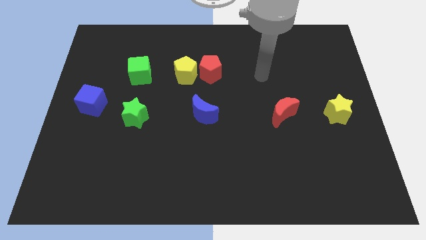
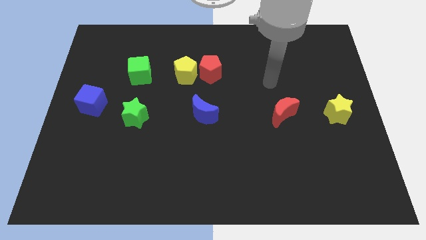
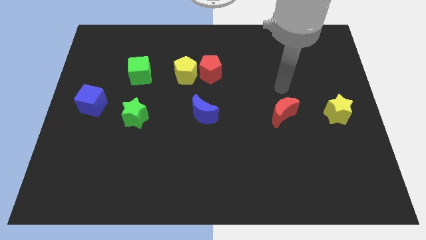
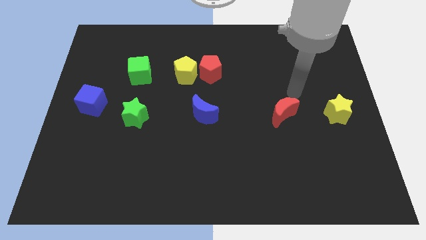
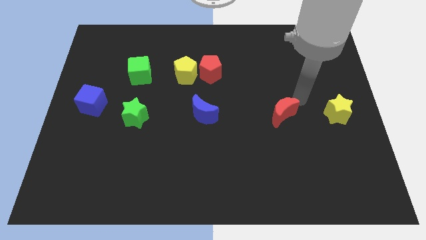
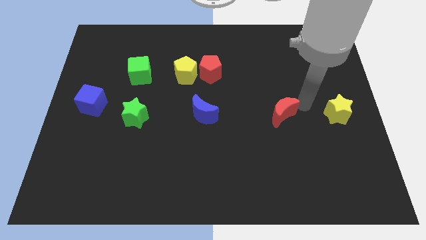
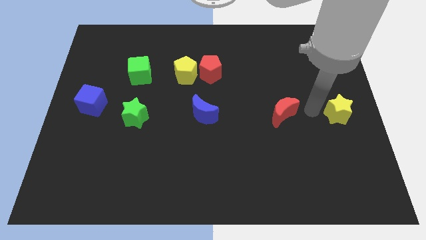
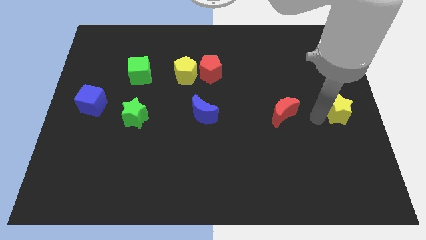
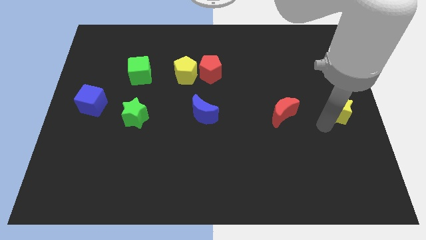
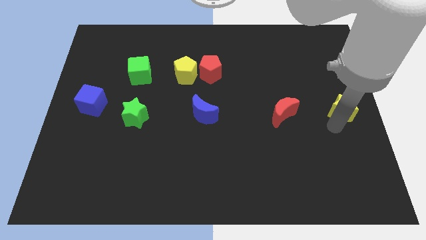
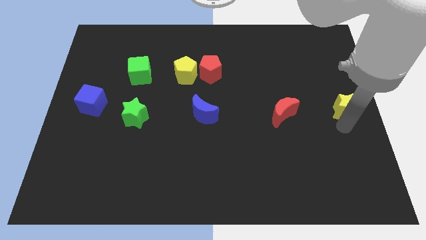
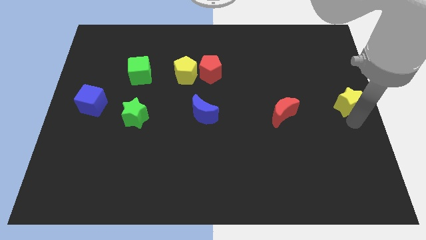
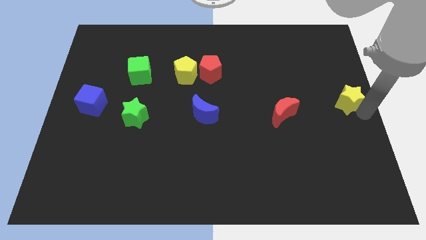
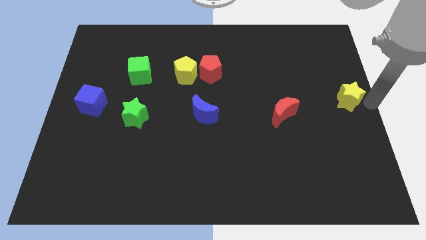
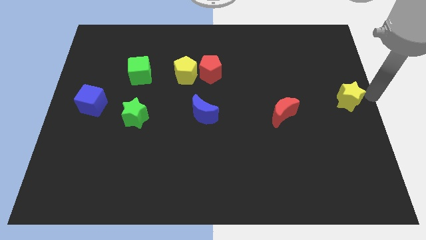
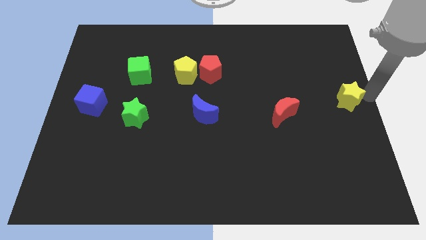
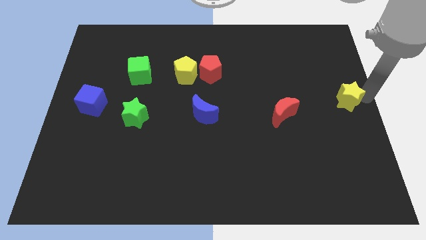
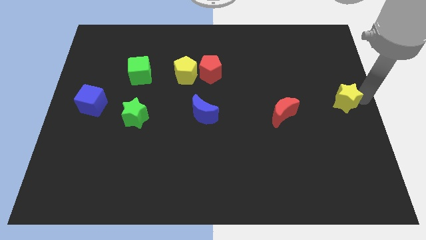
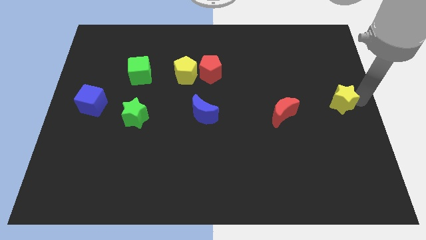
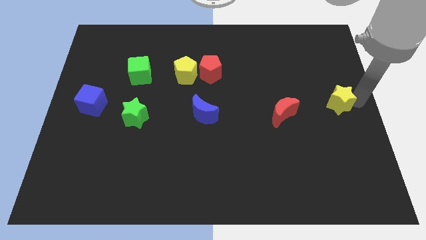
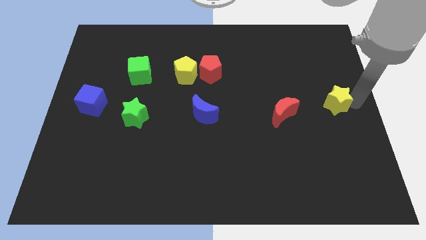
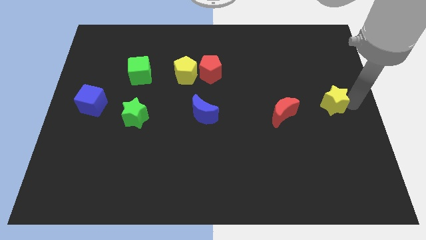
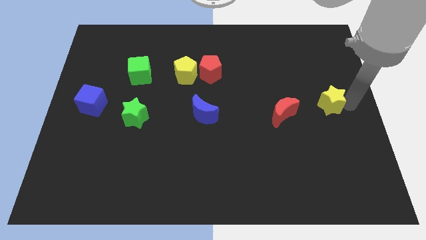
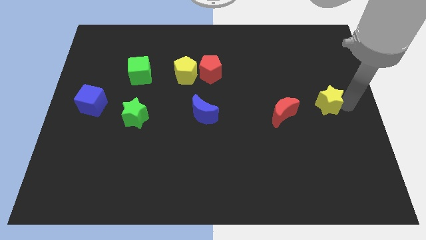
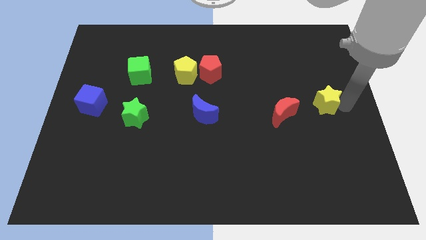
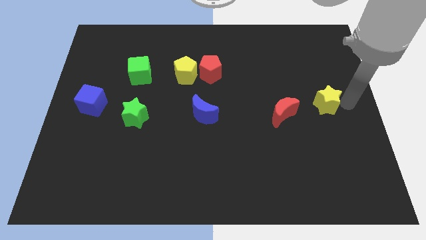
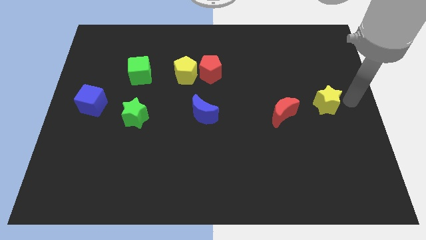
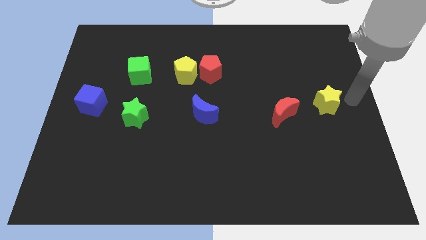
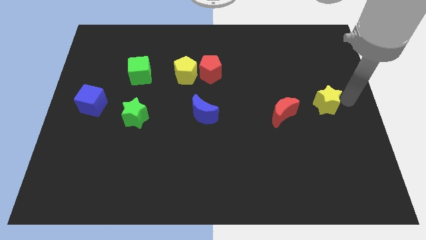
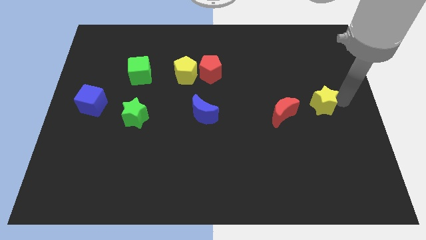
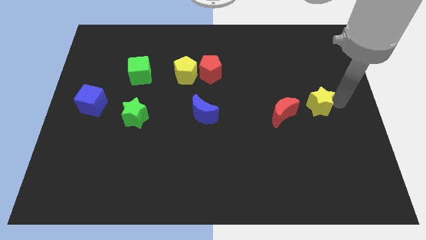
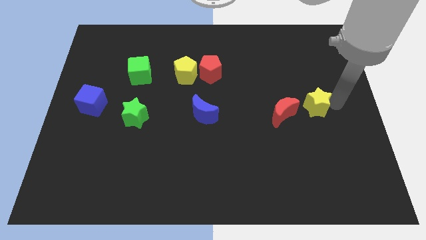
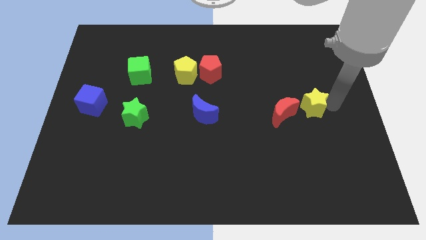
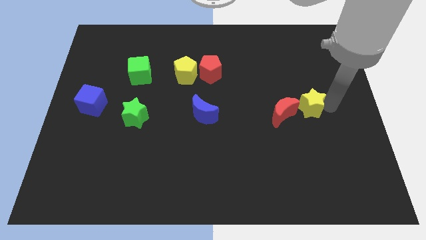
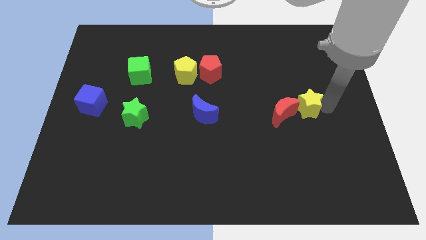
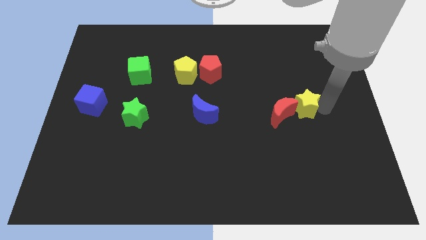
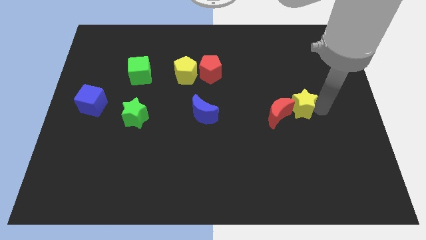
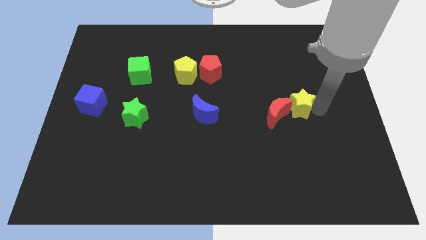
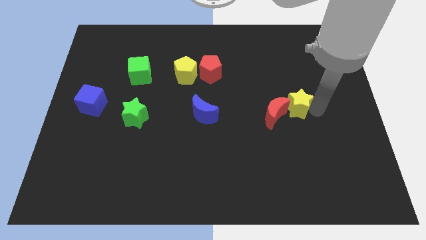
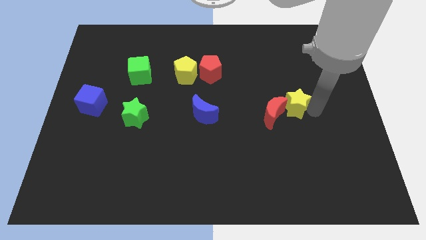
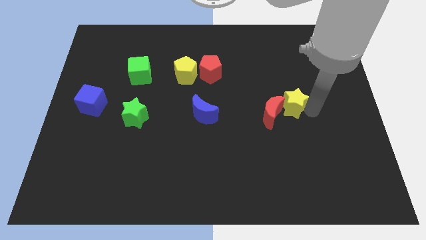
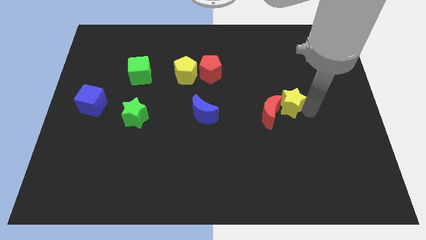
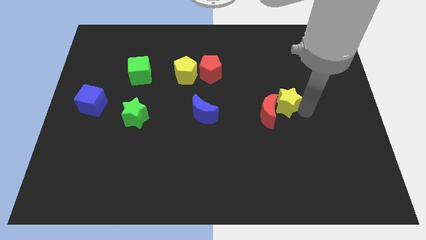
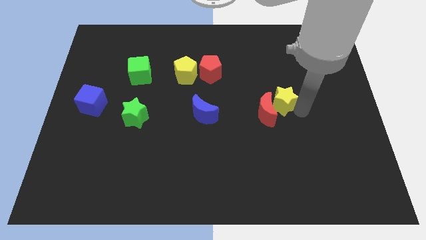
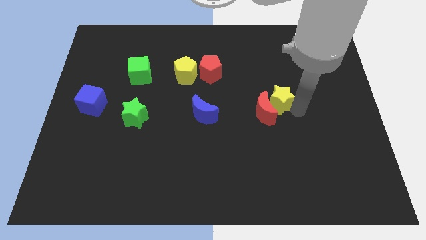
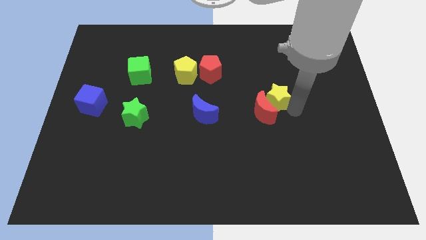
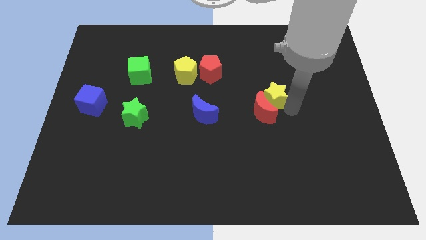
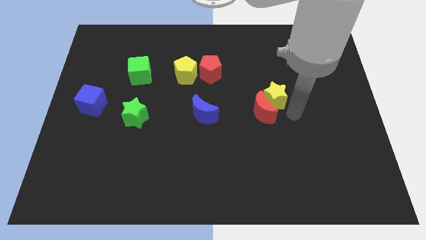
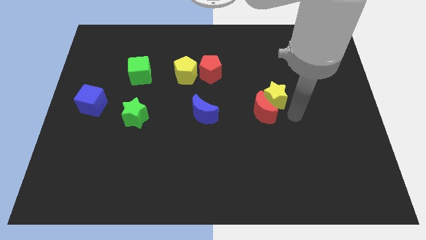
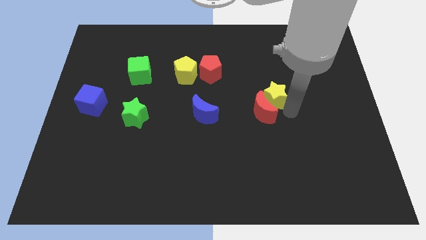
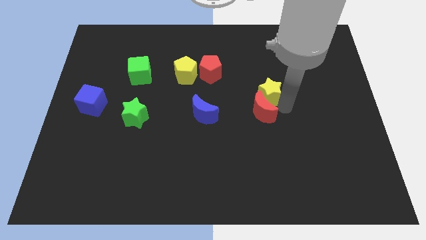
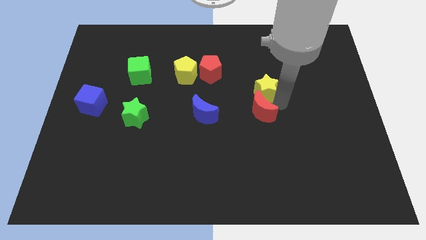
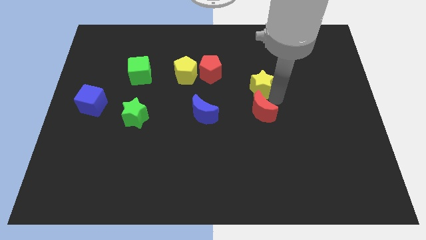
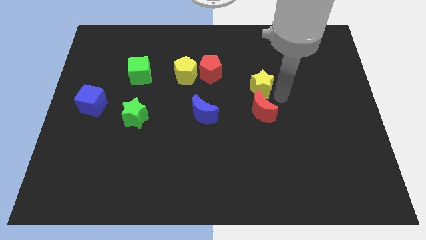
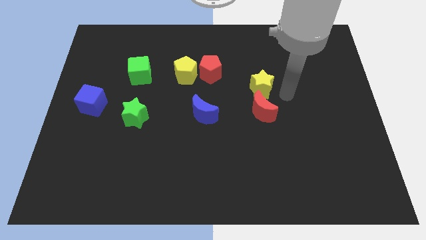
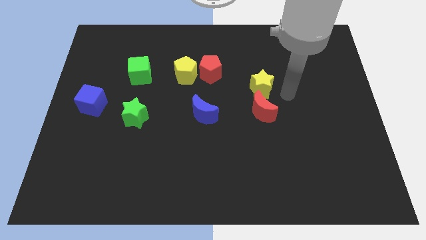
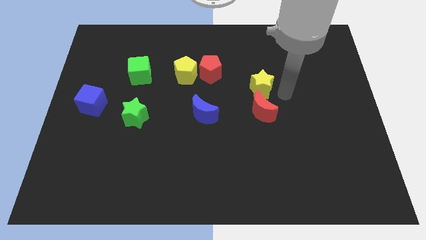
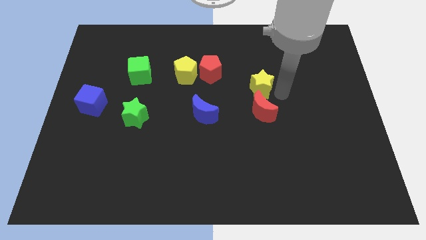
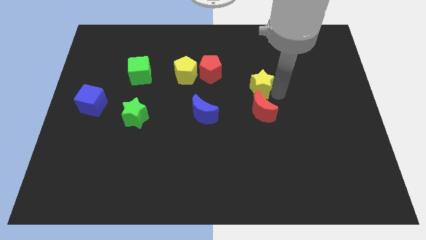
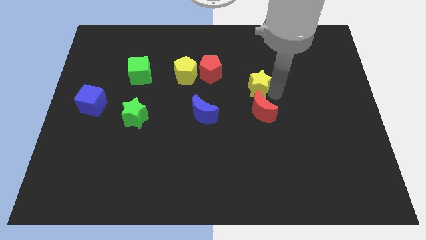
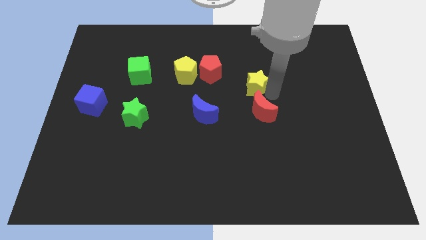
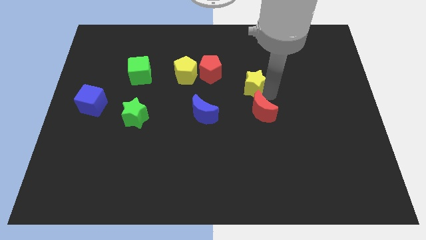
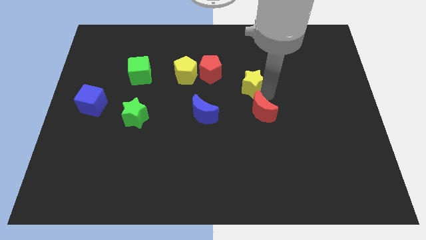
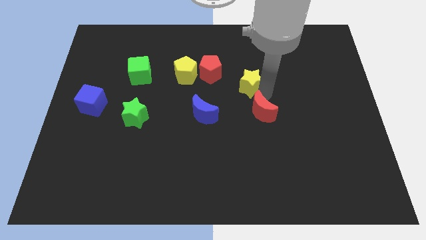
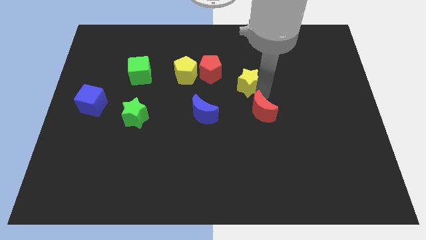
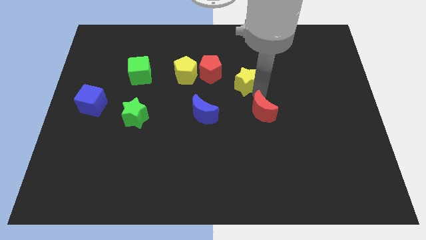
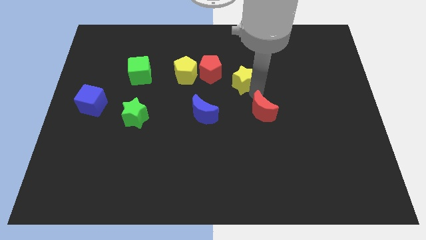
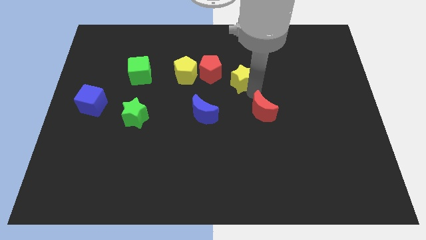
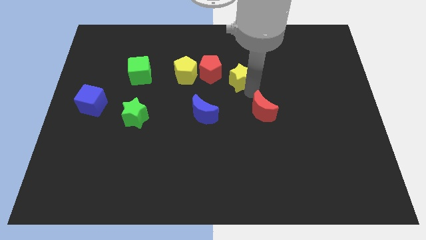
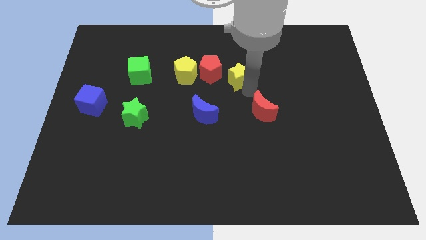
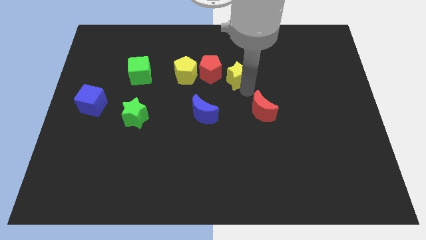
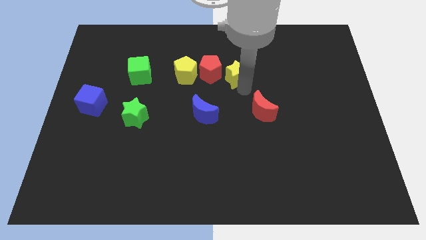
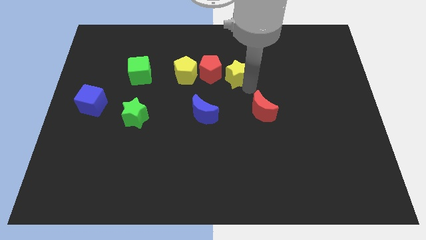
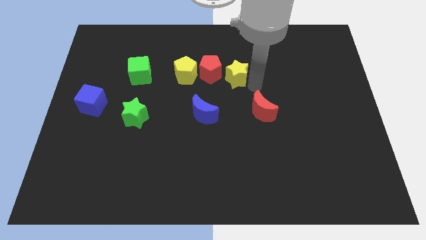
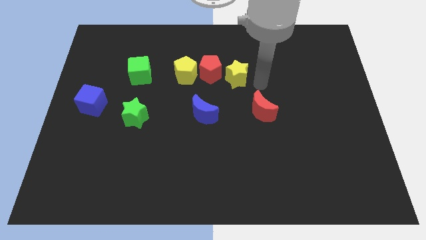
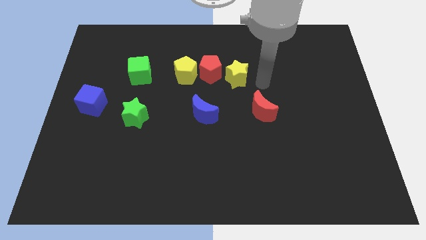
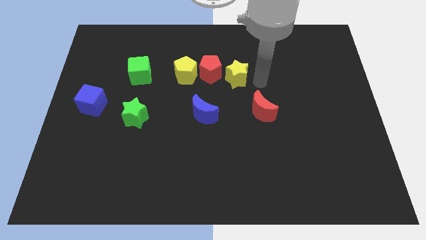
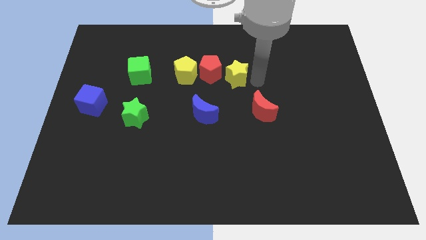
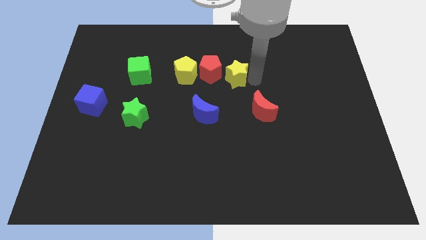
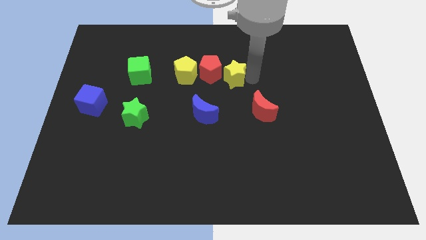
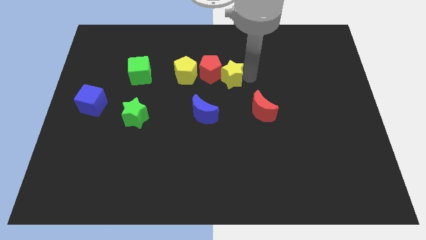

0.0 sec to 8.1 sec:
put the yellow star to the red pentagon
